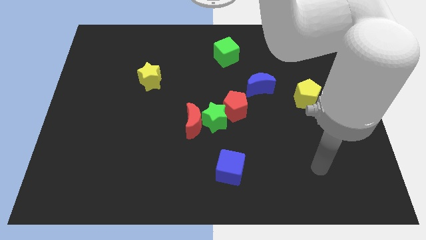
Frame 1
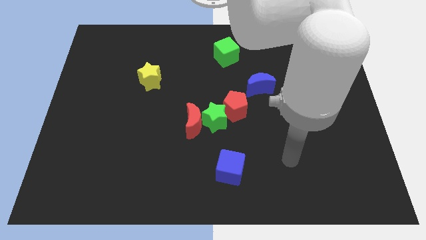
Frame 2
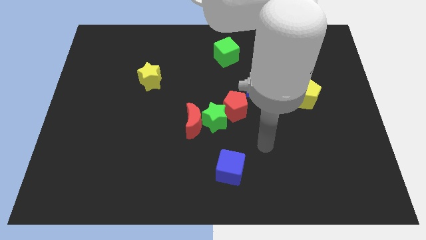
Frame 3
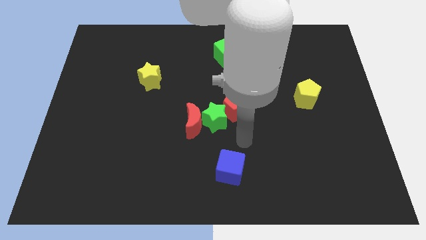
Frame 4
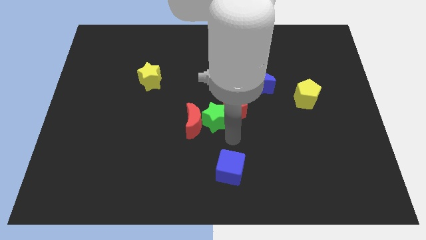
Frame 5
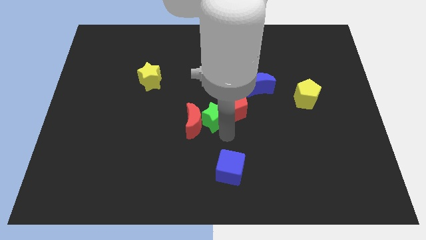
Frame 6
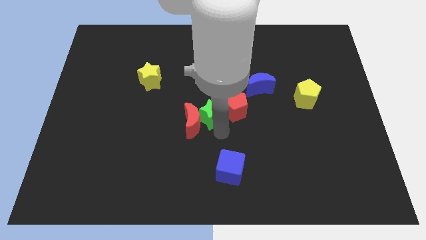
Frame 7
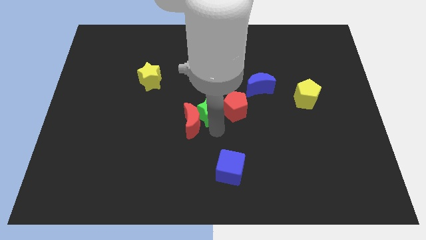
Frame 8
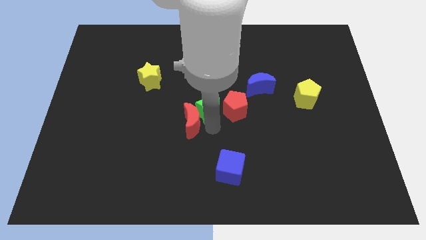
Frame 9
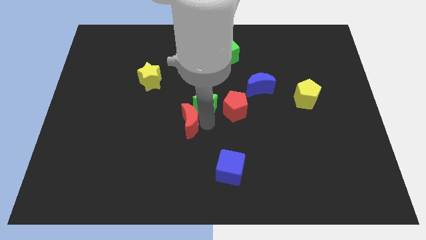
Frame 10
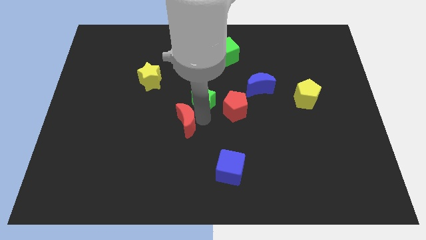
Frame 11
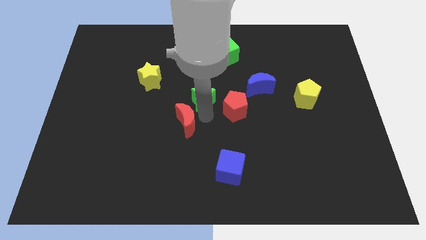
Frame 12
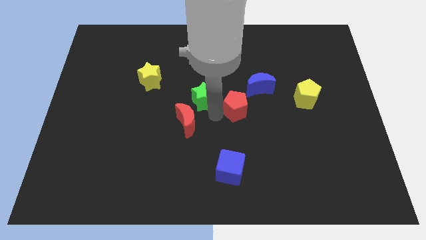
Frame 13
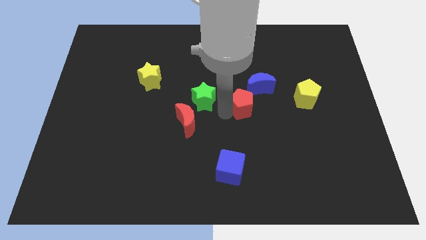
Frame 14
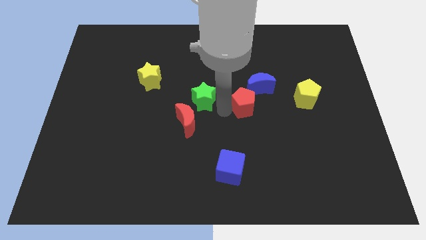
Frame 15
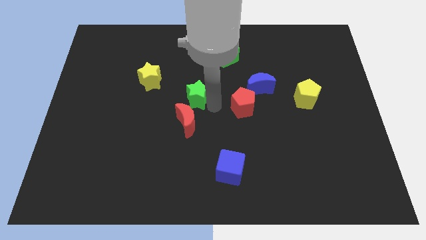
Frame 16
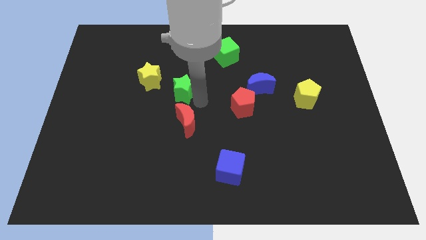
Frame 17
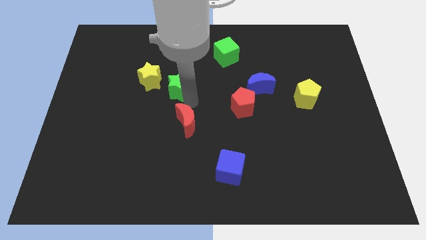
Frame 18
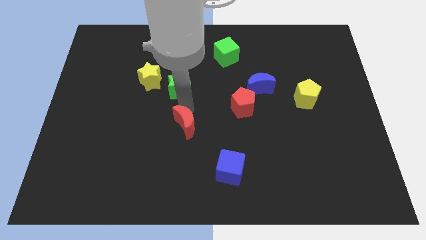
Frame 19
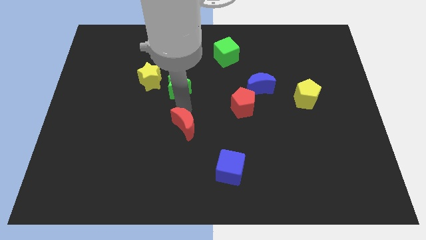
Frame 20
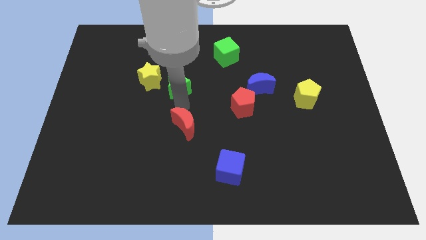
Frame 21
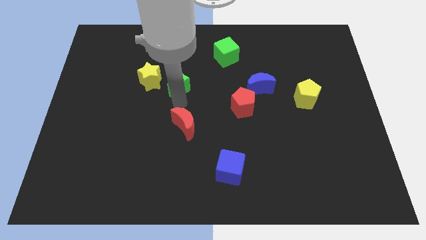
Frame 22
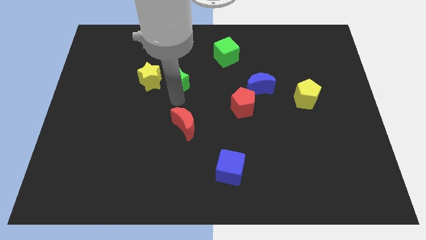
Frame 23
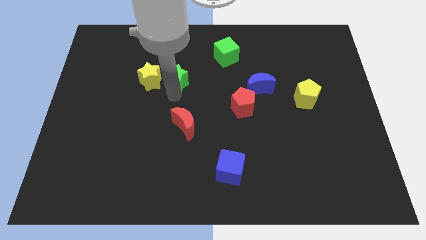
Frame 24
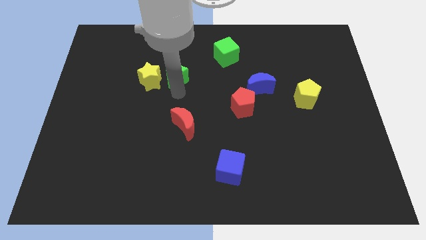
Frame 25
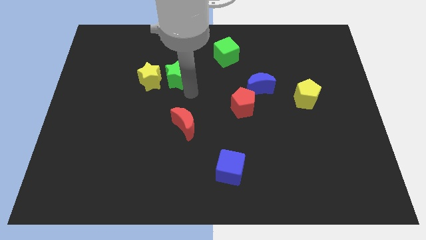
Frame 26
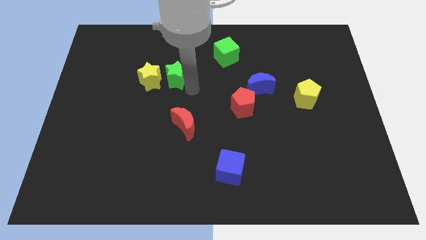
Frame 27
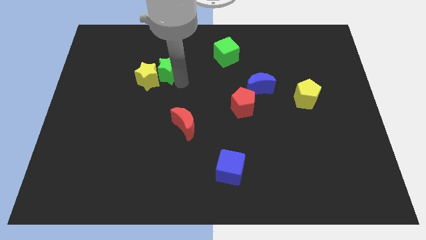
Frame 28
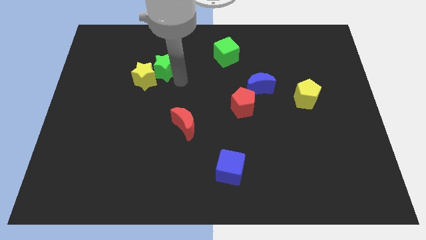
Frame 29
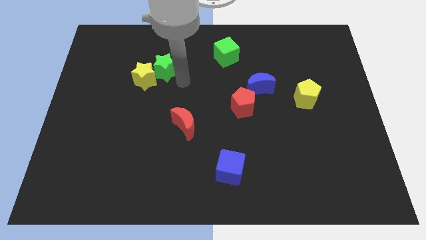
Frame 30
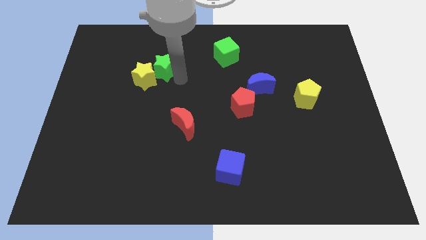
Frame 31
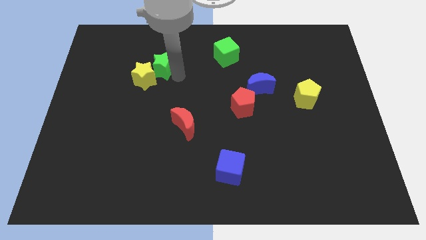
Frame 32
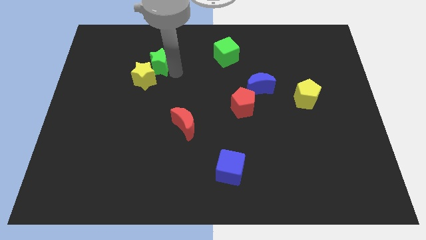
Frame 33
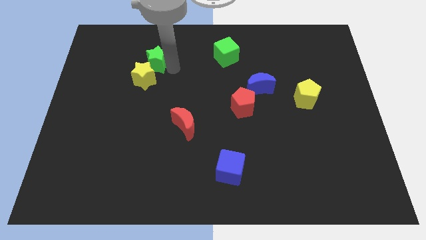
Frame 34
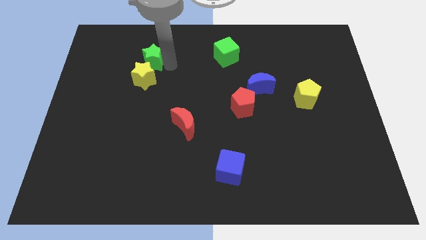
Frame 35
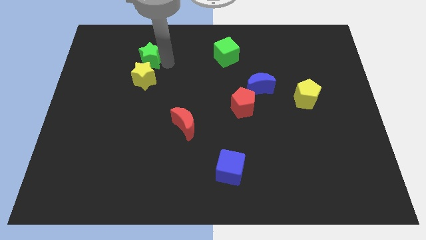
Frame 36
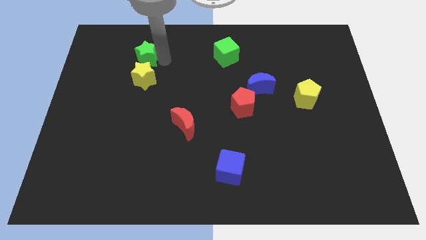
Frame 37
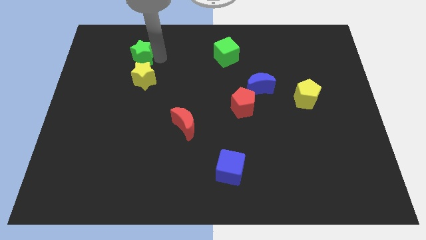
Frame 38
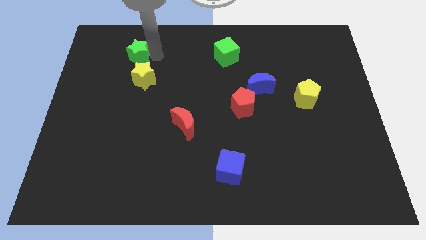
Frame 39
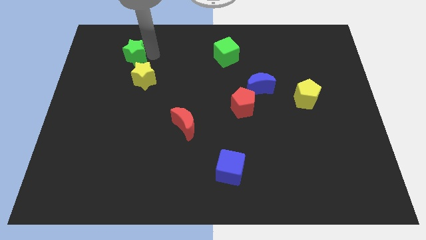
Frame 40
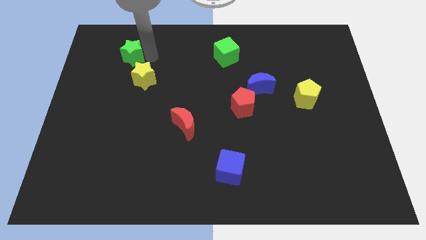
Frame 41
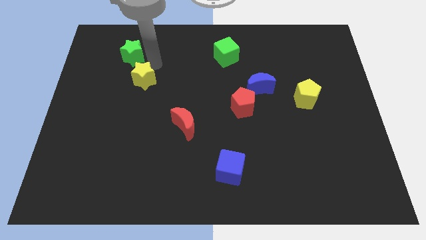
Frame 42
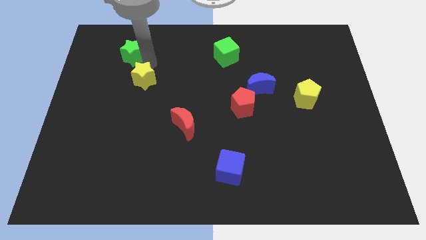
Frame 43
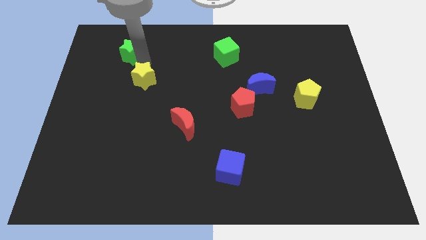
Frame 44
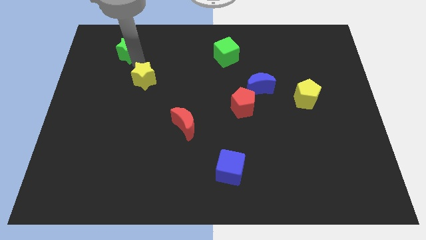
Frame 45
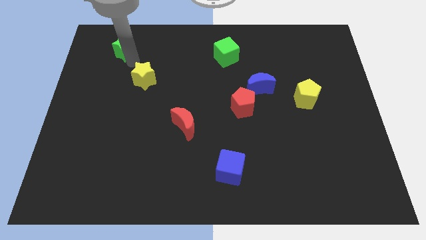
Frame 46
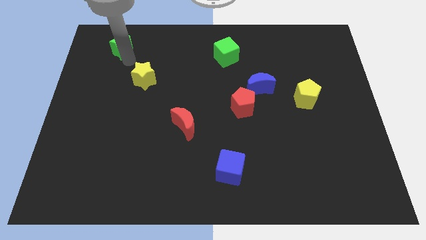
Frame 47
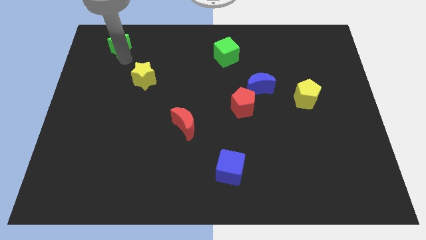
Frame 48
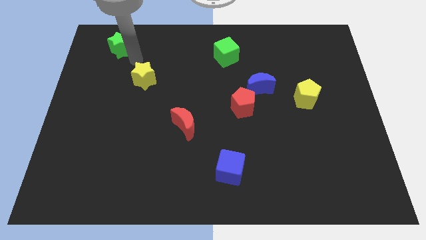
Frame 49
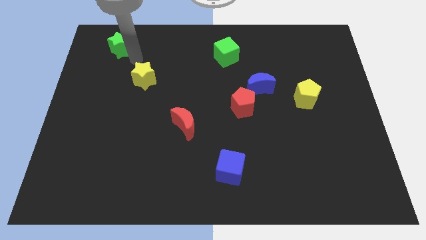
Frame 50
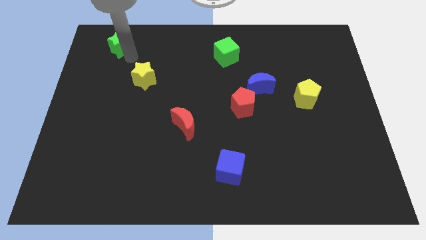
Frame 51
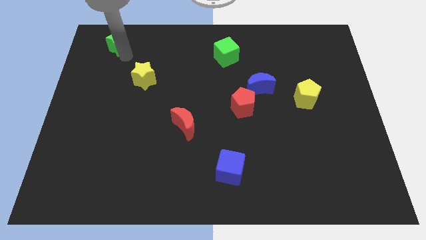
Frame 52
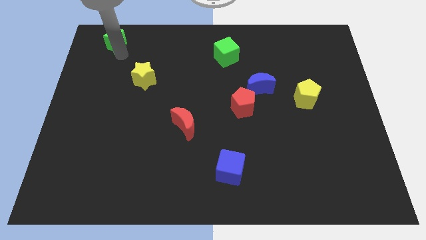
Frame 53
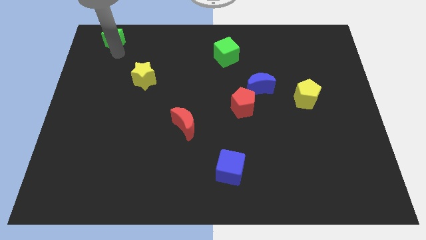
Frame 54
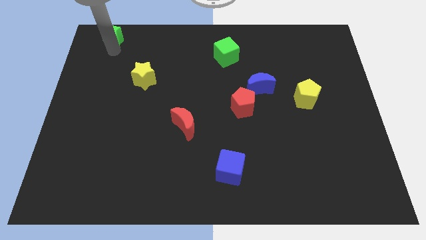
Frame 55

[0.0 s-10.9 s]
push the green star to the upper left corner

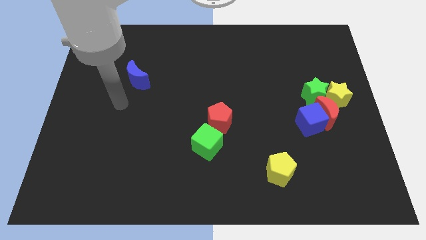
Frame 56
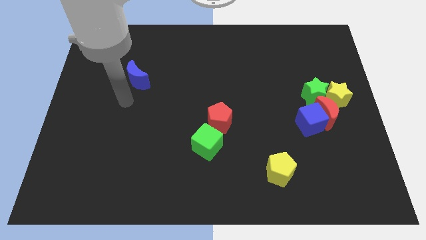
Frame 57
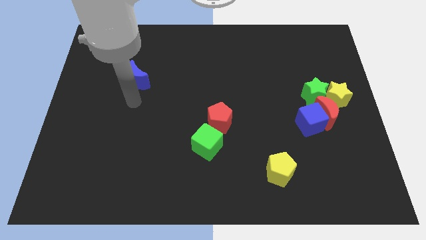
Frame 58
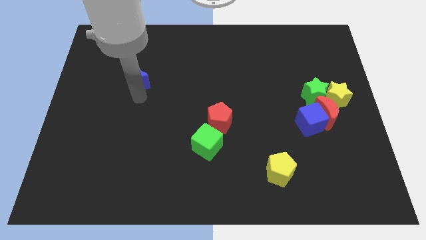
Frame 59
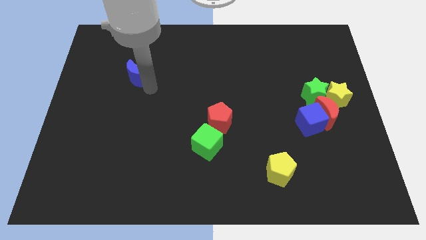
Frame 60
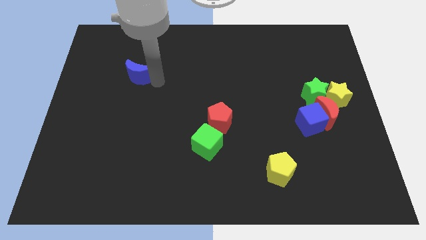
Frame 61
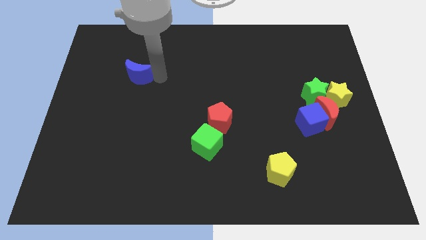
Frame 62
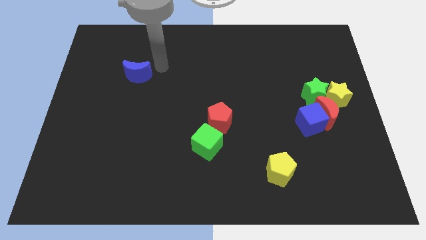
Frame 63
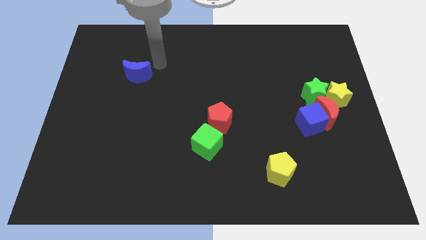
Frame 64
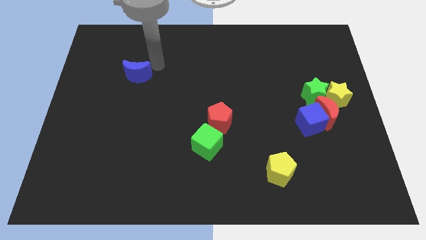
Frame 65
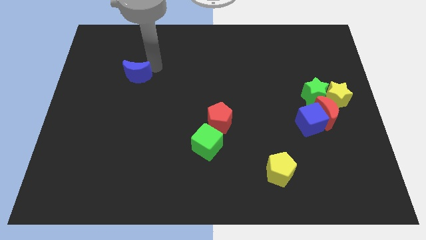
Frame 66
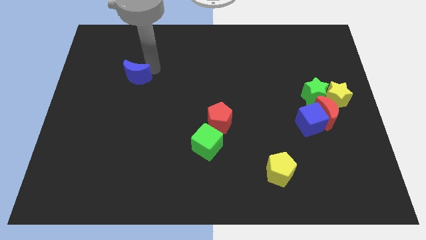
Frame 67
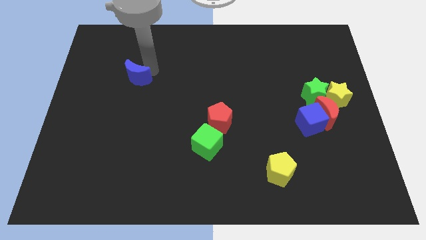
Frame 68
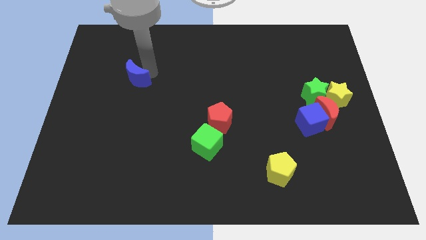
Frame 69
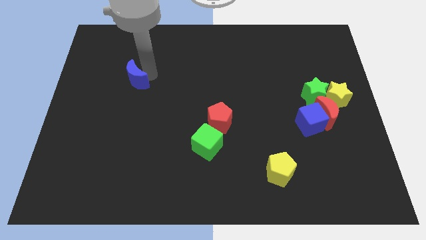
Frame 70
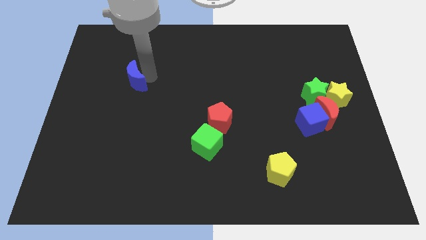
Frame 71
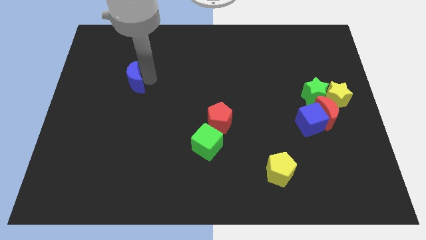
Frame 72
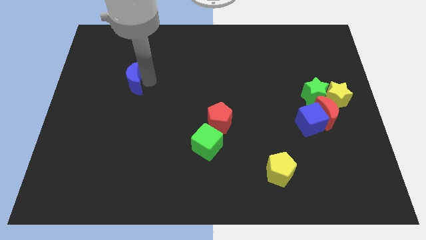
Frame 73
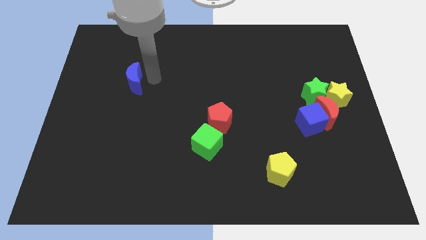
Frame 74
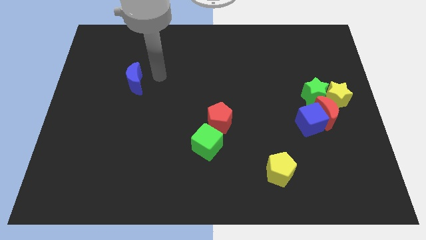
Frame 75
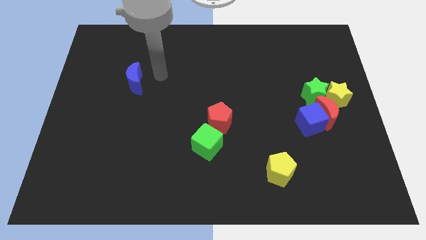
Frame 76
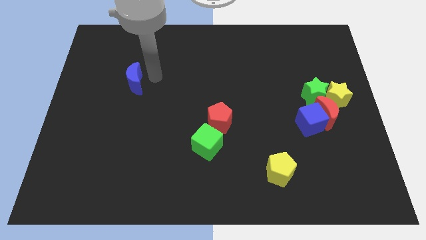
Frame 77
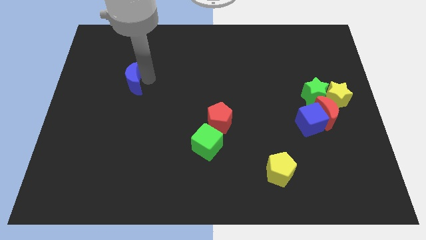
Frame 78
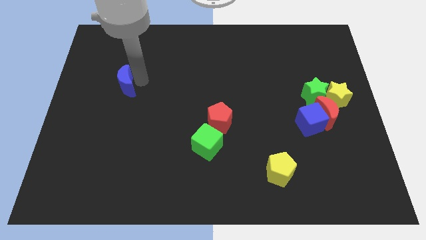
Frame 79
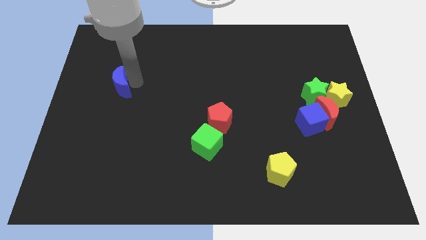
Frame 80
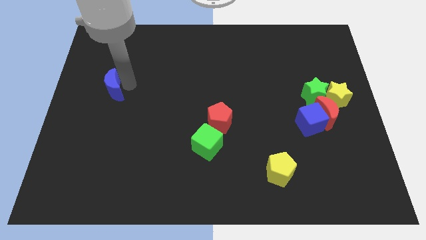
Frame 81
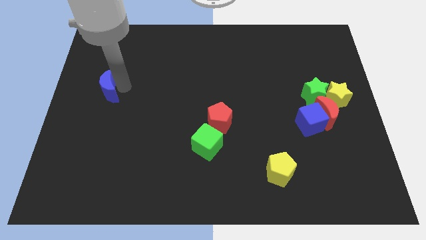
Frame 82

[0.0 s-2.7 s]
slide the blue moon to the left side of the board
